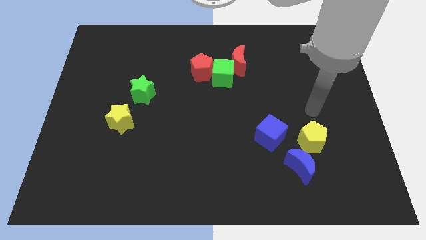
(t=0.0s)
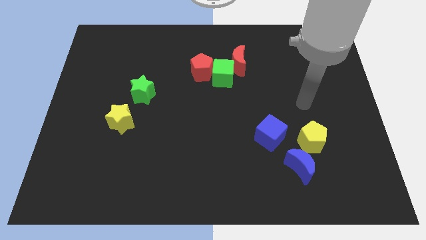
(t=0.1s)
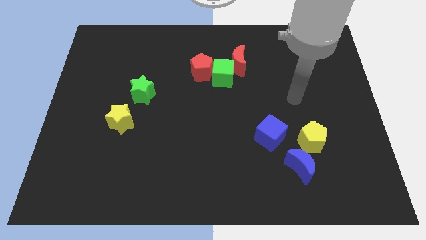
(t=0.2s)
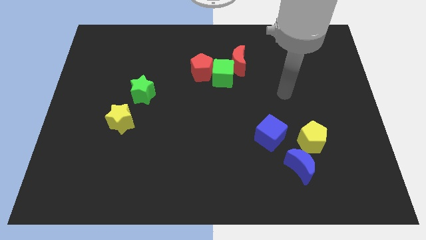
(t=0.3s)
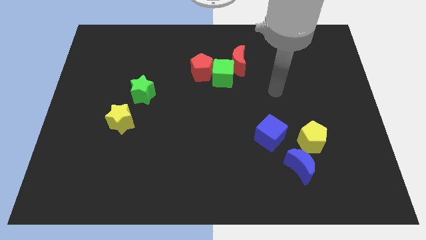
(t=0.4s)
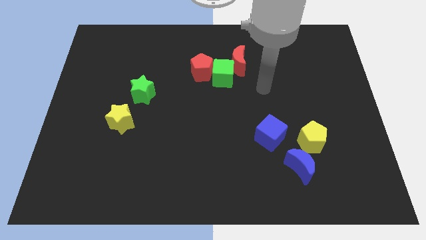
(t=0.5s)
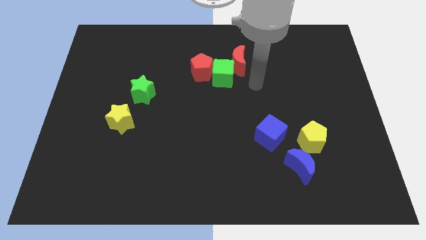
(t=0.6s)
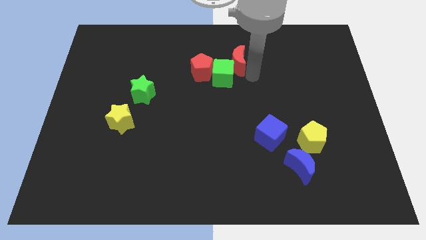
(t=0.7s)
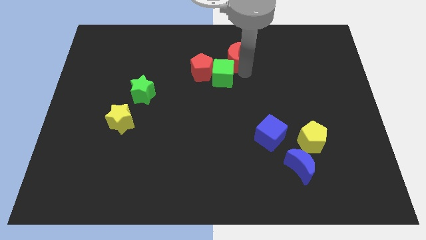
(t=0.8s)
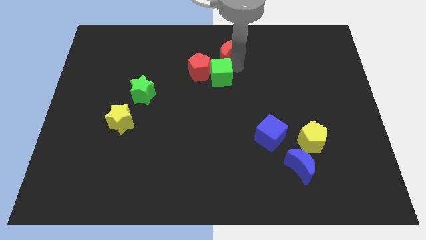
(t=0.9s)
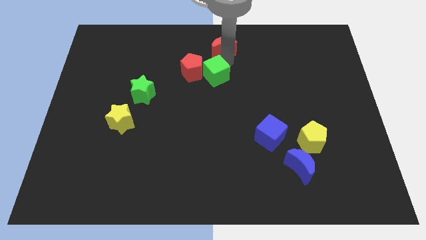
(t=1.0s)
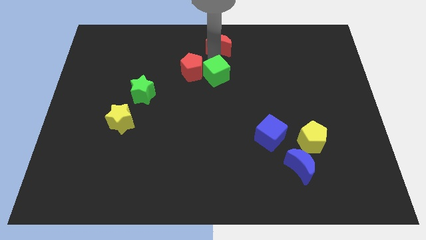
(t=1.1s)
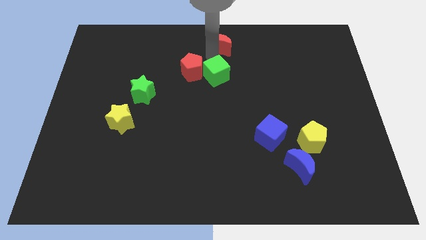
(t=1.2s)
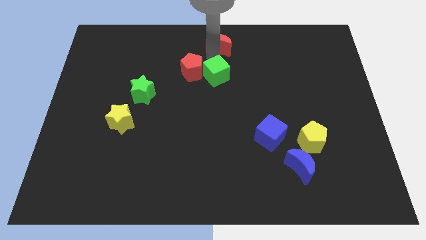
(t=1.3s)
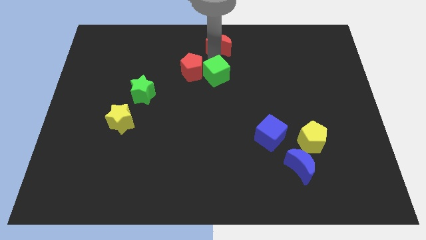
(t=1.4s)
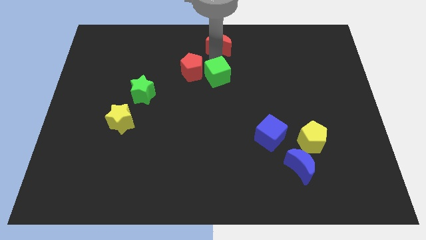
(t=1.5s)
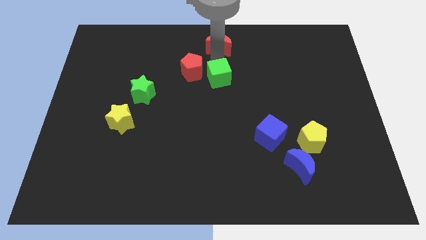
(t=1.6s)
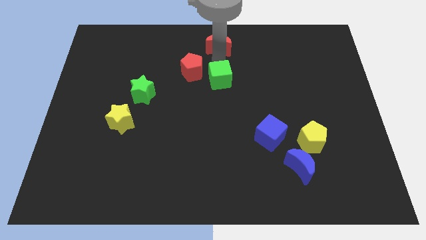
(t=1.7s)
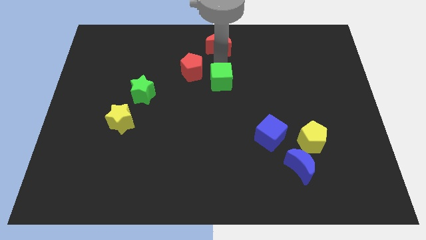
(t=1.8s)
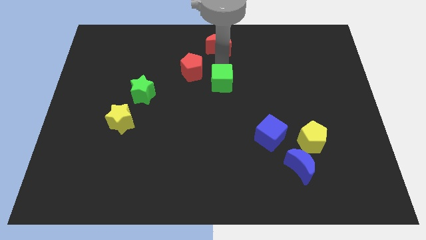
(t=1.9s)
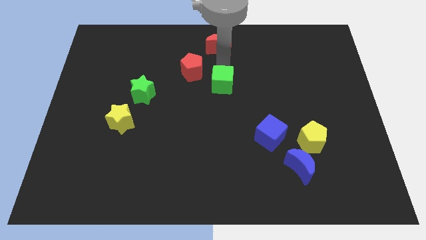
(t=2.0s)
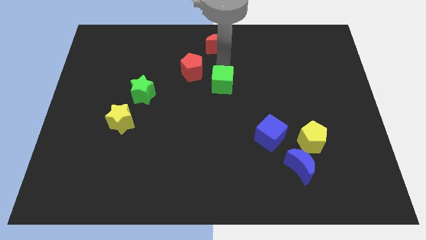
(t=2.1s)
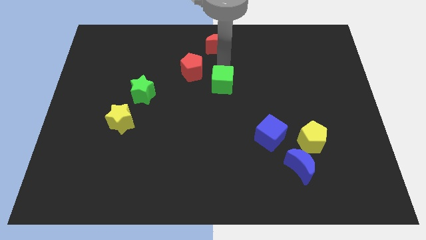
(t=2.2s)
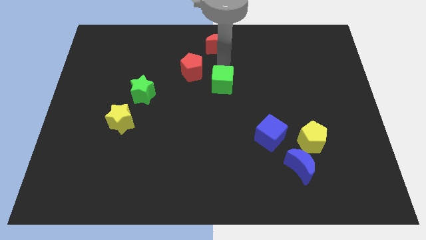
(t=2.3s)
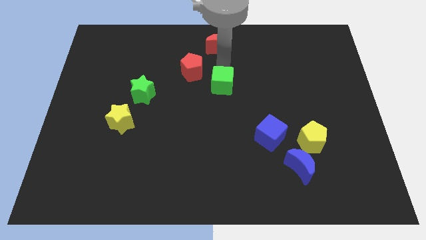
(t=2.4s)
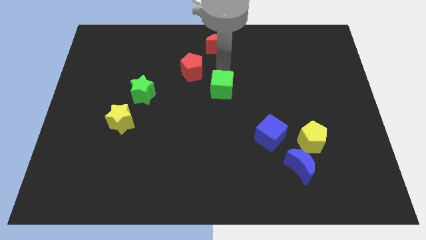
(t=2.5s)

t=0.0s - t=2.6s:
pull the green cube apart from the red pentagon and red moon

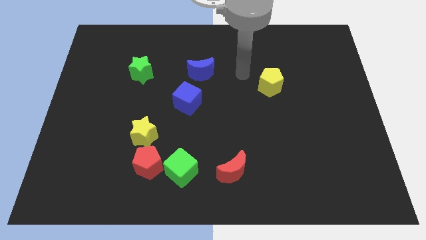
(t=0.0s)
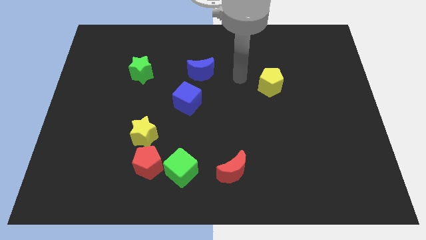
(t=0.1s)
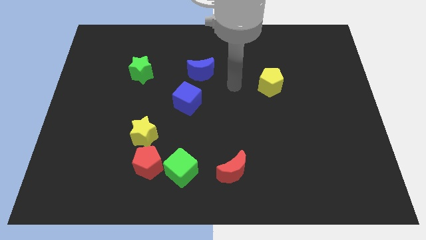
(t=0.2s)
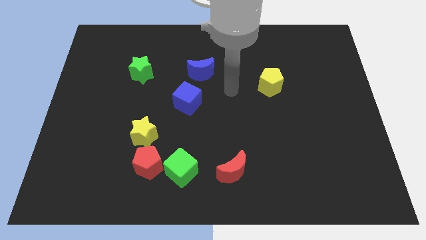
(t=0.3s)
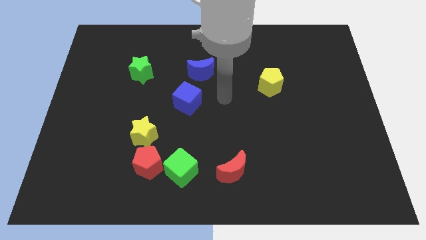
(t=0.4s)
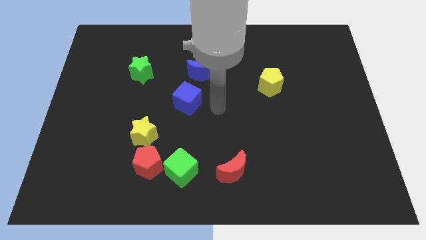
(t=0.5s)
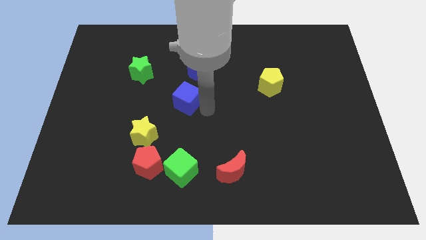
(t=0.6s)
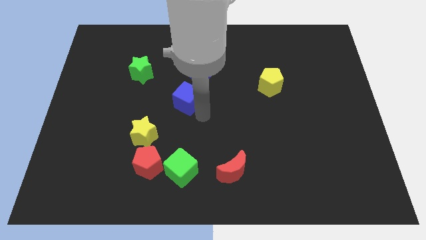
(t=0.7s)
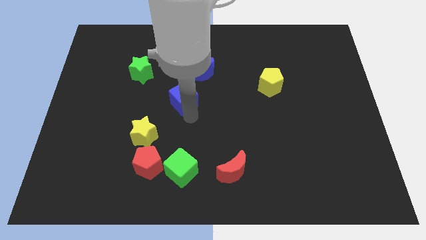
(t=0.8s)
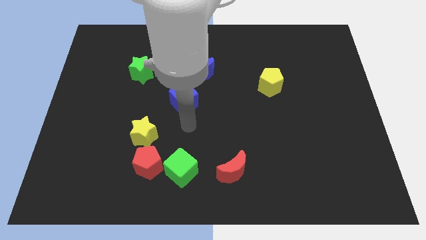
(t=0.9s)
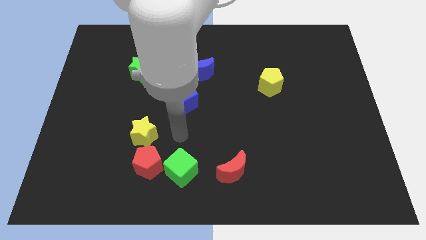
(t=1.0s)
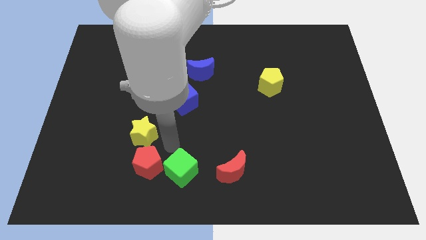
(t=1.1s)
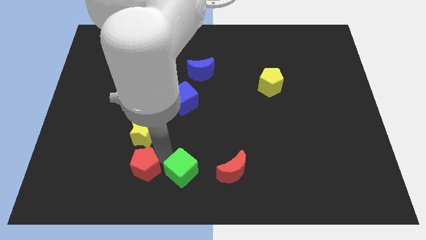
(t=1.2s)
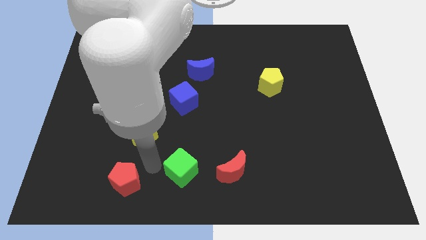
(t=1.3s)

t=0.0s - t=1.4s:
separate the green cube from the red pentagon

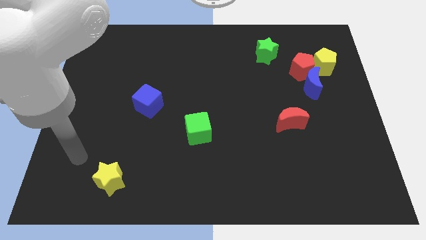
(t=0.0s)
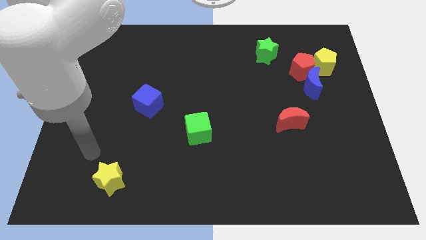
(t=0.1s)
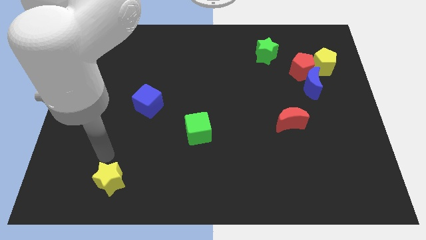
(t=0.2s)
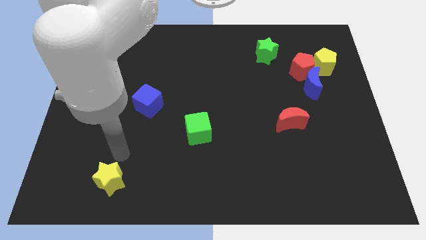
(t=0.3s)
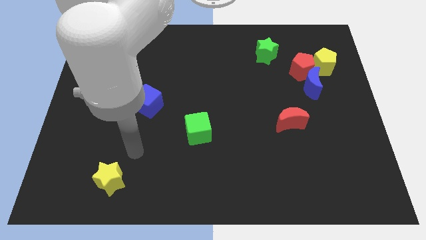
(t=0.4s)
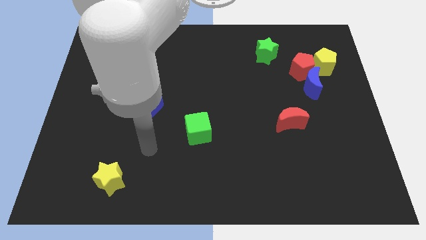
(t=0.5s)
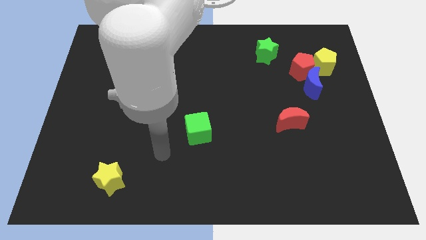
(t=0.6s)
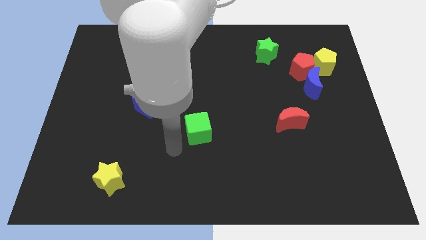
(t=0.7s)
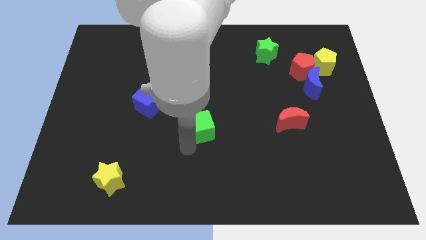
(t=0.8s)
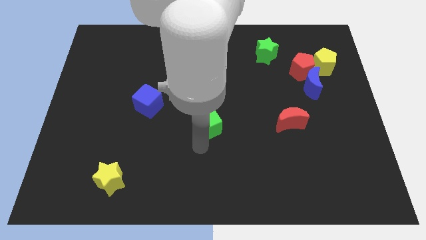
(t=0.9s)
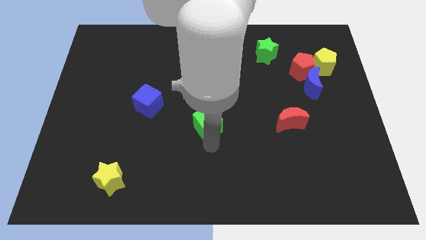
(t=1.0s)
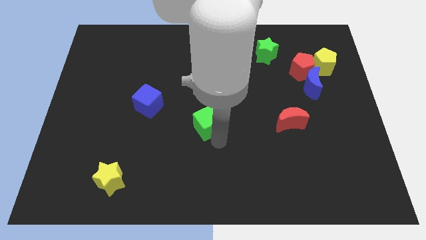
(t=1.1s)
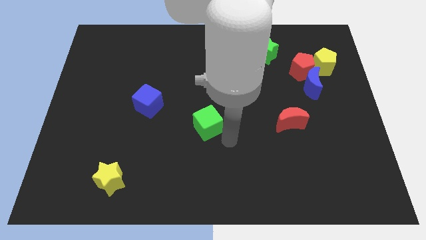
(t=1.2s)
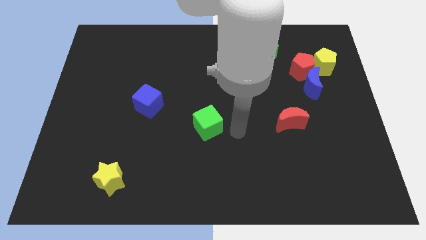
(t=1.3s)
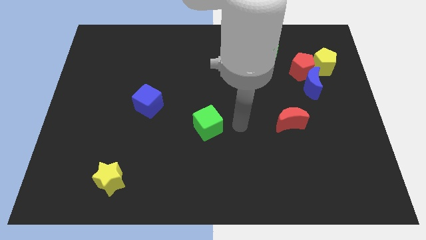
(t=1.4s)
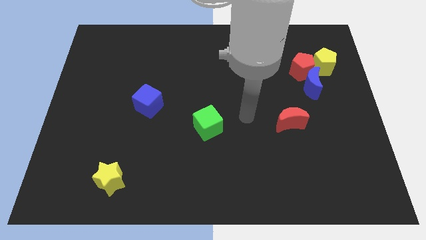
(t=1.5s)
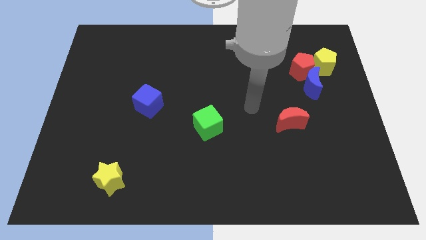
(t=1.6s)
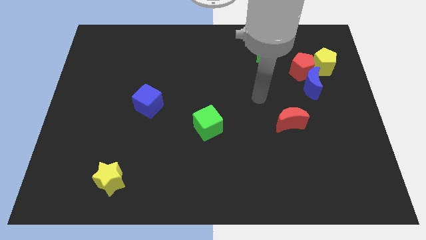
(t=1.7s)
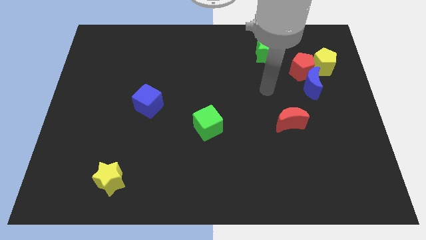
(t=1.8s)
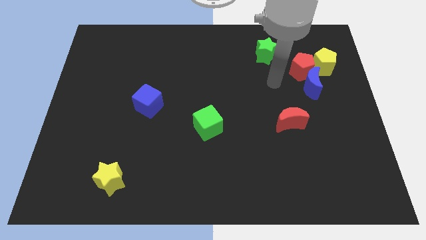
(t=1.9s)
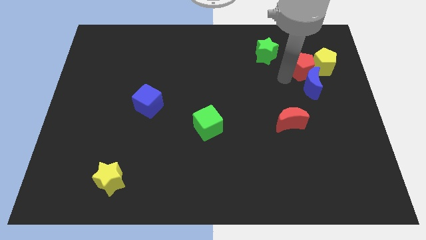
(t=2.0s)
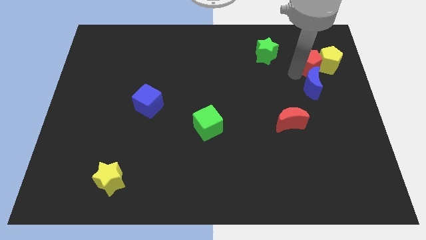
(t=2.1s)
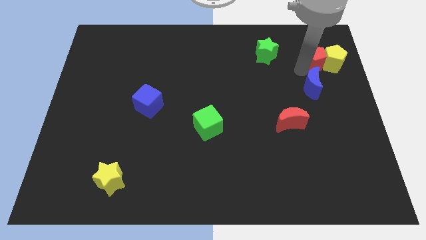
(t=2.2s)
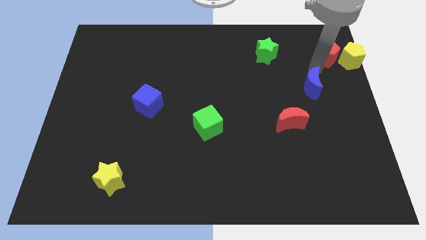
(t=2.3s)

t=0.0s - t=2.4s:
separate the blue moon from the red pentagon and yellow pentagon

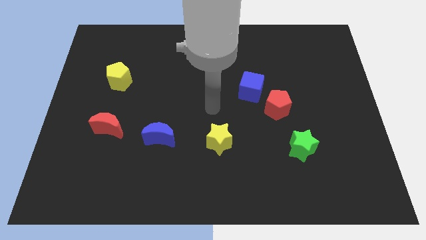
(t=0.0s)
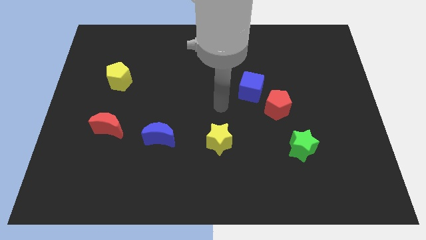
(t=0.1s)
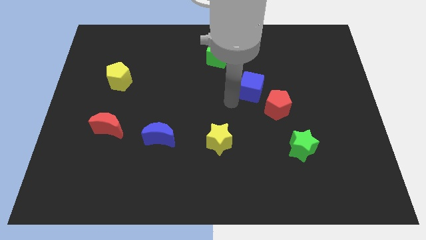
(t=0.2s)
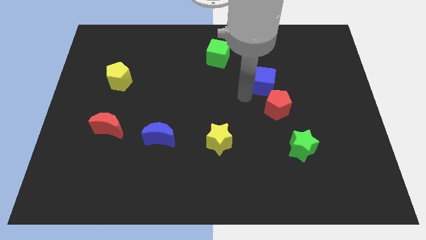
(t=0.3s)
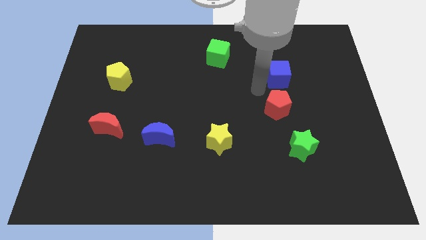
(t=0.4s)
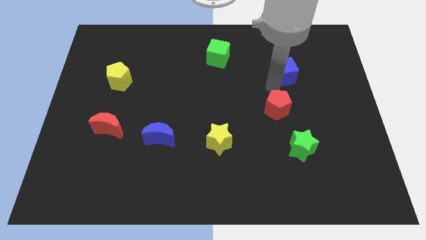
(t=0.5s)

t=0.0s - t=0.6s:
move the red pentagon away from the blue cube

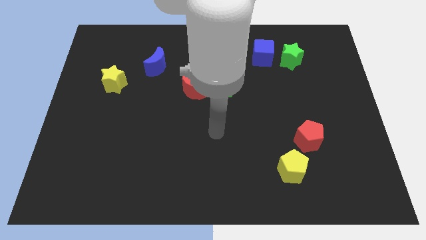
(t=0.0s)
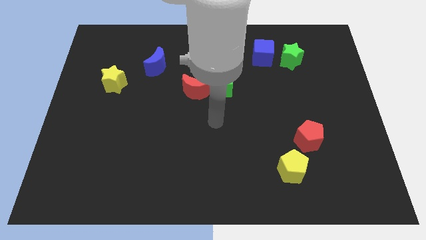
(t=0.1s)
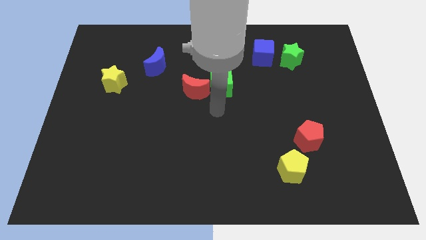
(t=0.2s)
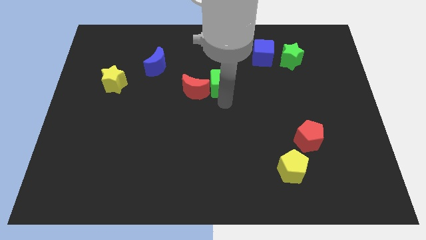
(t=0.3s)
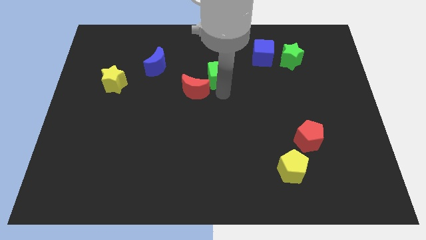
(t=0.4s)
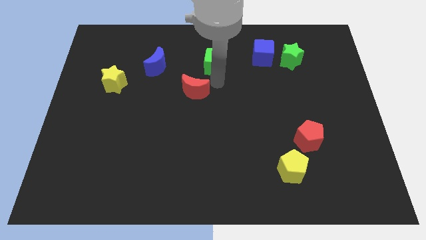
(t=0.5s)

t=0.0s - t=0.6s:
separate the red moon from the green cube

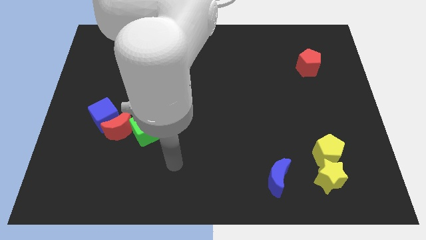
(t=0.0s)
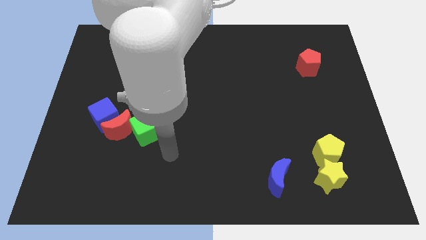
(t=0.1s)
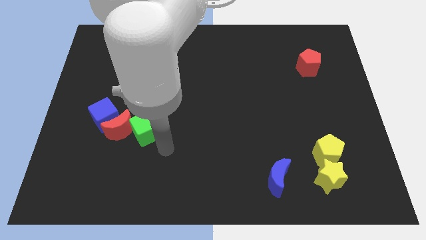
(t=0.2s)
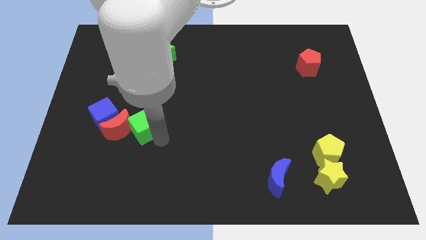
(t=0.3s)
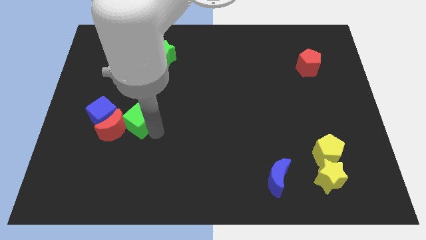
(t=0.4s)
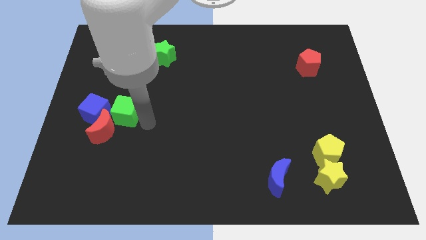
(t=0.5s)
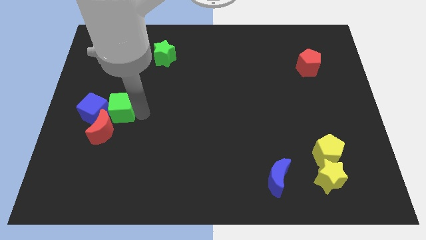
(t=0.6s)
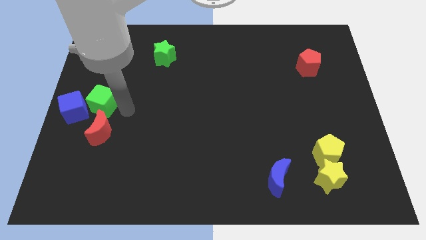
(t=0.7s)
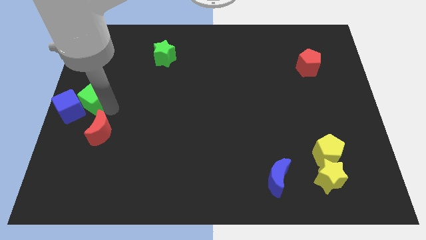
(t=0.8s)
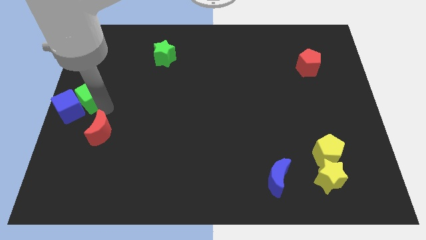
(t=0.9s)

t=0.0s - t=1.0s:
move the red moon away from the blue cube and green cube

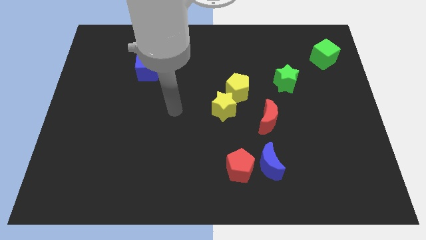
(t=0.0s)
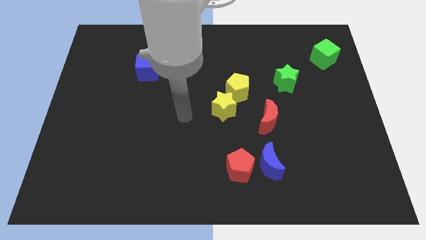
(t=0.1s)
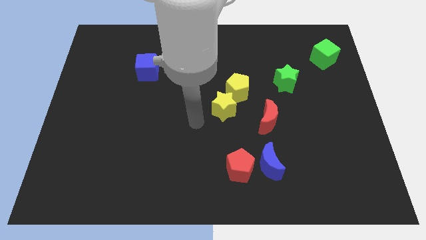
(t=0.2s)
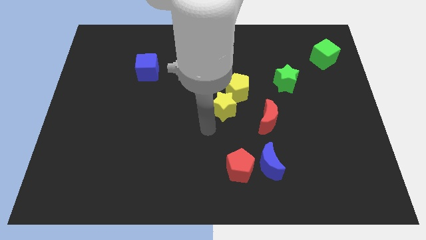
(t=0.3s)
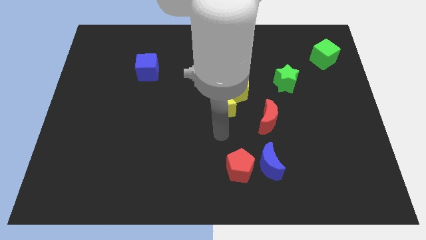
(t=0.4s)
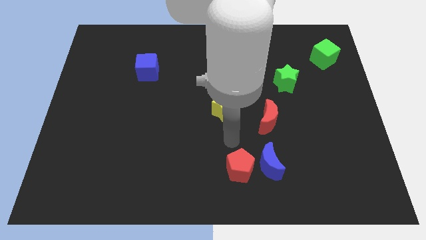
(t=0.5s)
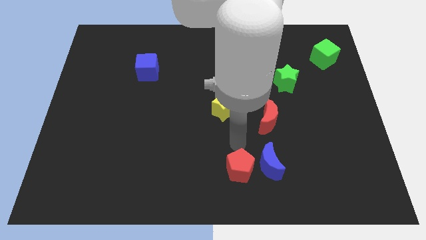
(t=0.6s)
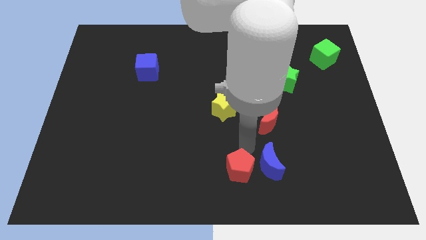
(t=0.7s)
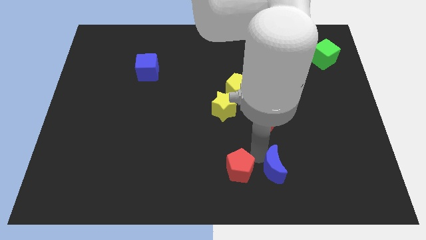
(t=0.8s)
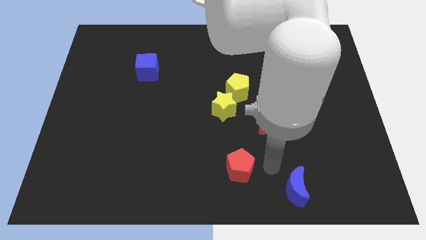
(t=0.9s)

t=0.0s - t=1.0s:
pull the red pentagon apart from the blue moon
